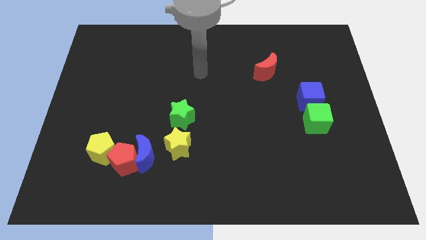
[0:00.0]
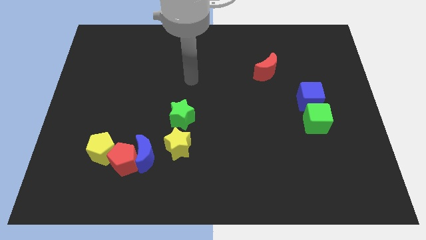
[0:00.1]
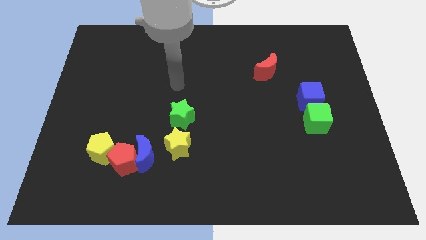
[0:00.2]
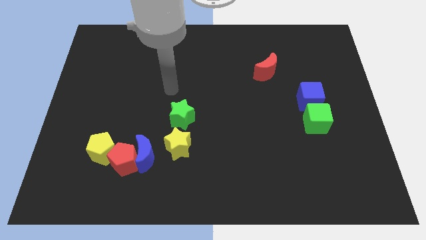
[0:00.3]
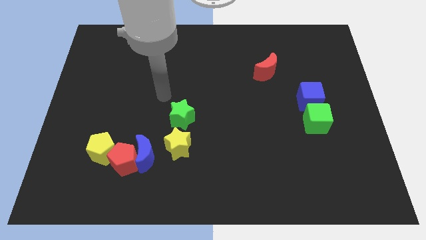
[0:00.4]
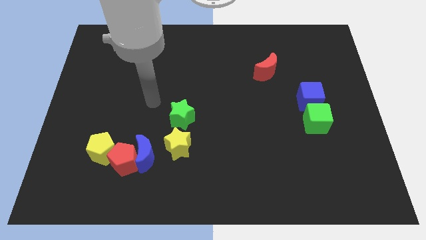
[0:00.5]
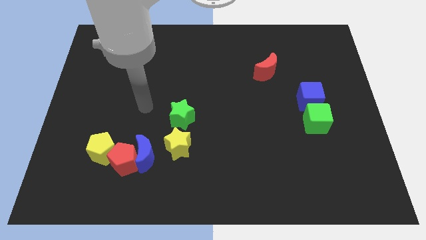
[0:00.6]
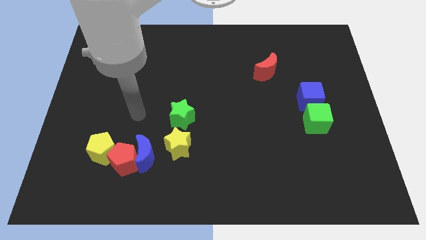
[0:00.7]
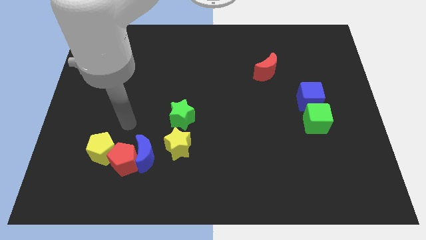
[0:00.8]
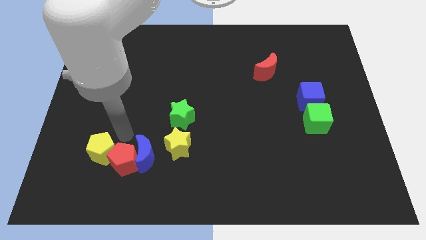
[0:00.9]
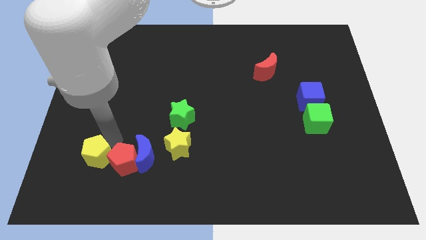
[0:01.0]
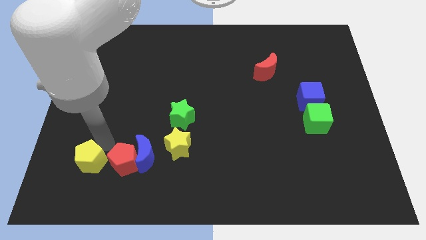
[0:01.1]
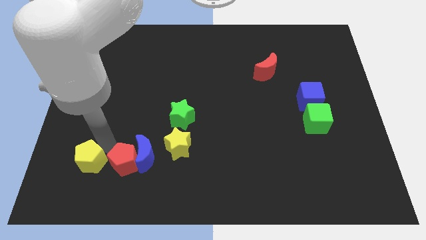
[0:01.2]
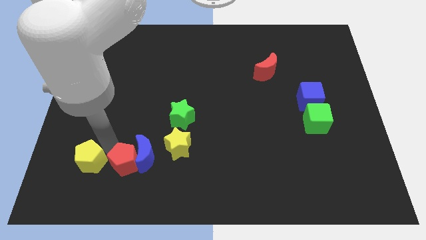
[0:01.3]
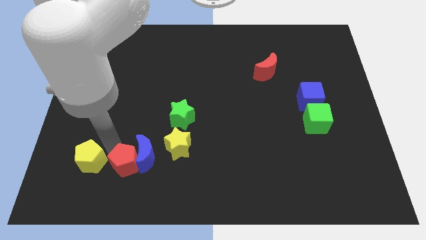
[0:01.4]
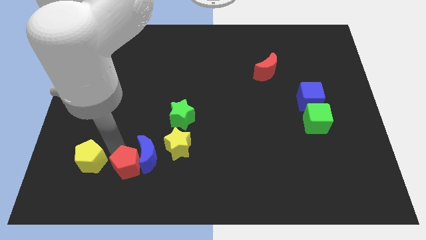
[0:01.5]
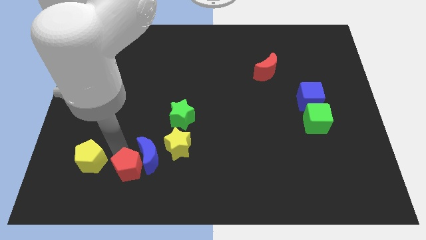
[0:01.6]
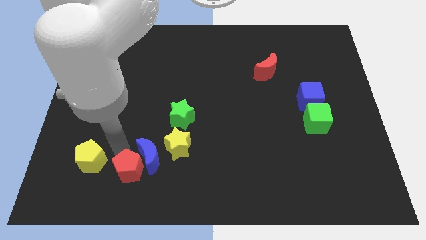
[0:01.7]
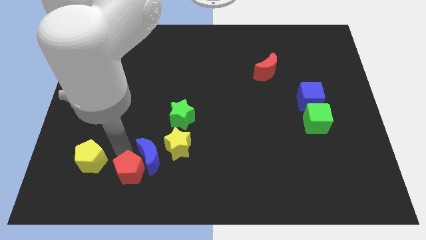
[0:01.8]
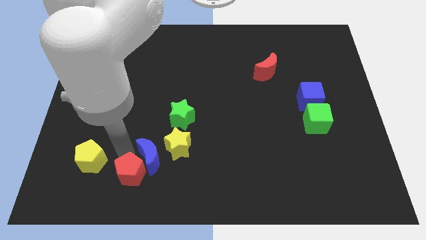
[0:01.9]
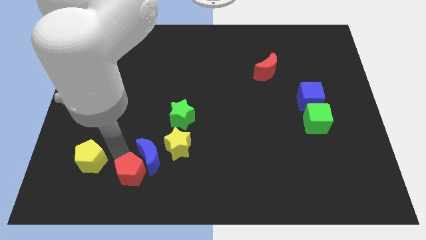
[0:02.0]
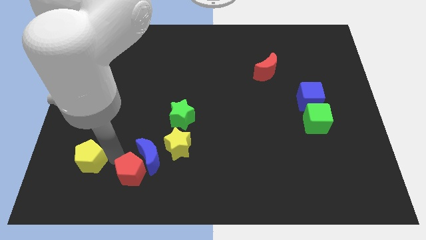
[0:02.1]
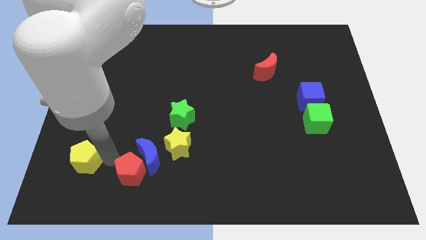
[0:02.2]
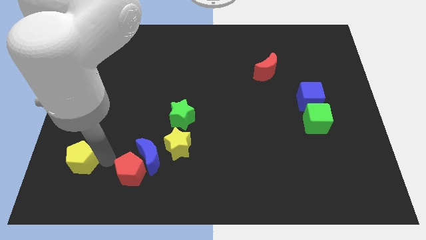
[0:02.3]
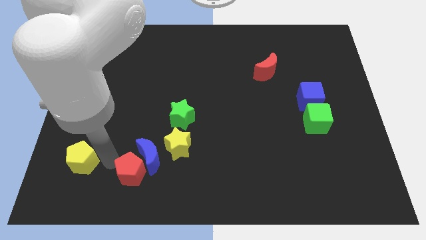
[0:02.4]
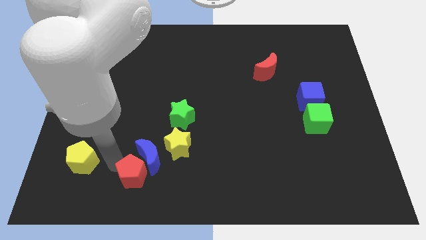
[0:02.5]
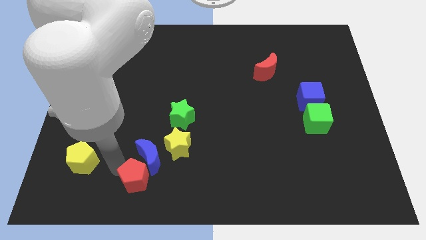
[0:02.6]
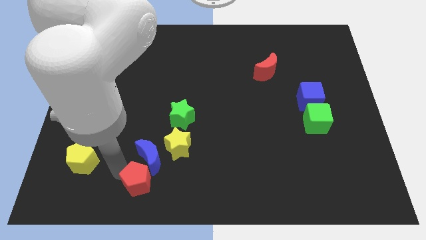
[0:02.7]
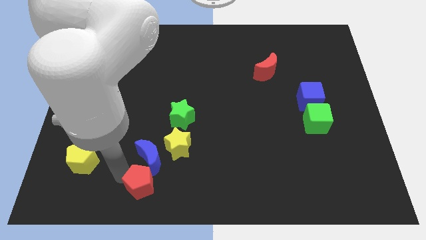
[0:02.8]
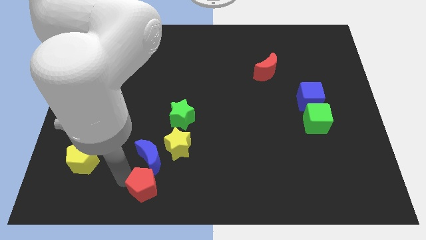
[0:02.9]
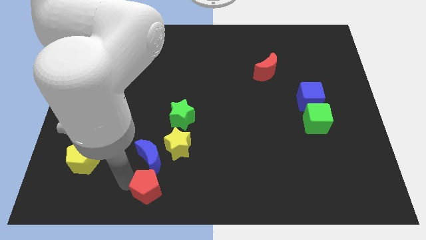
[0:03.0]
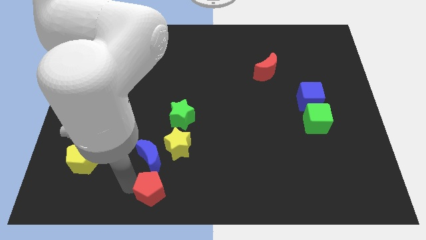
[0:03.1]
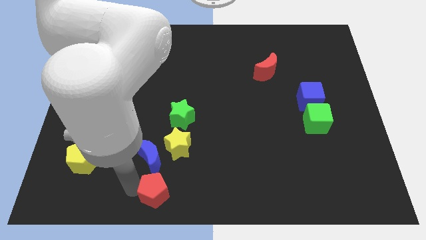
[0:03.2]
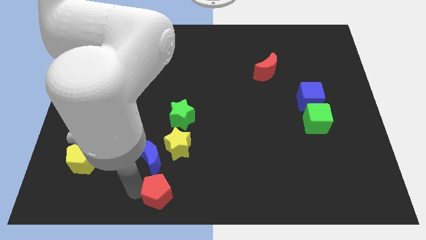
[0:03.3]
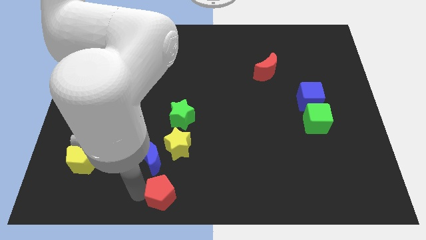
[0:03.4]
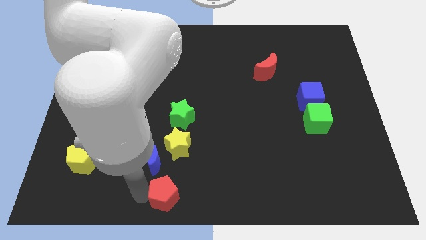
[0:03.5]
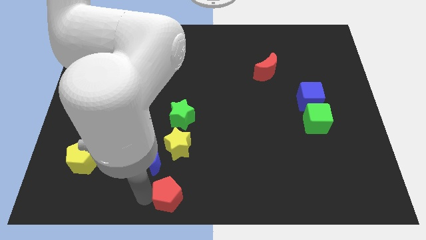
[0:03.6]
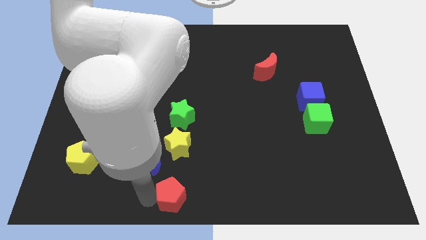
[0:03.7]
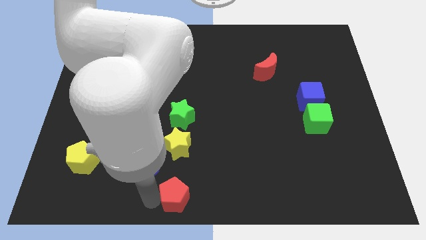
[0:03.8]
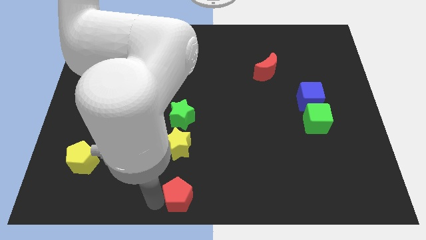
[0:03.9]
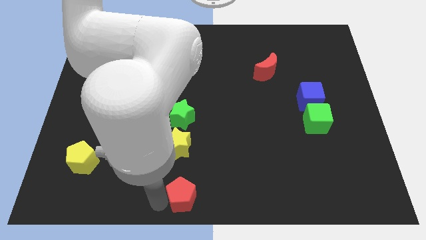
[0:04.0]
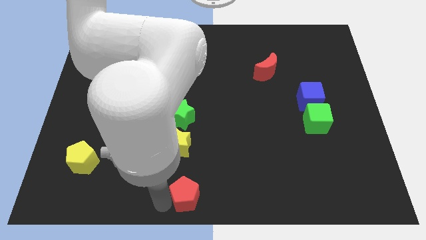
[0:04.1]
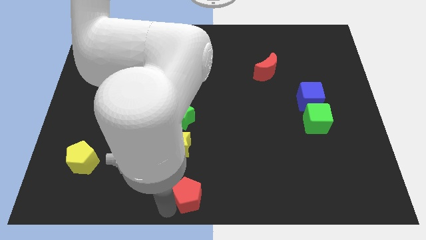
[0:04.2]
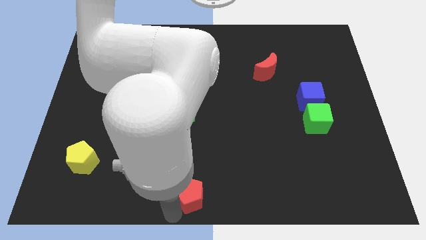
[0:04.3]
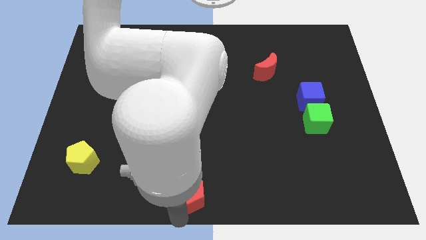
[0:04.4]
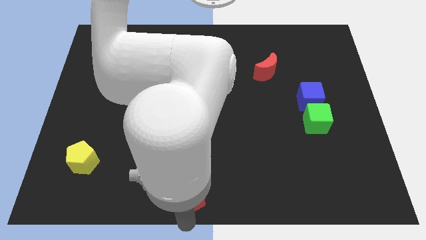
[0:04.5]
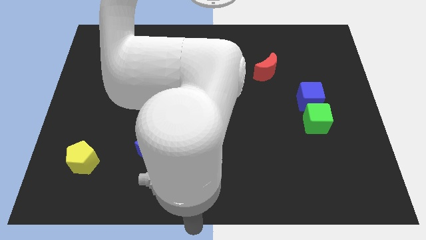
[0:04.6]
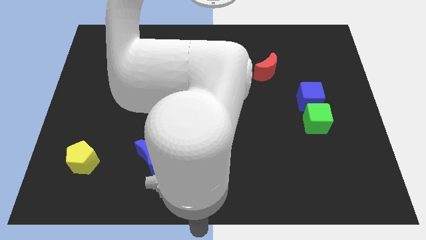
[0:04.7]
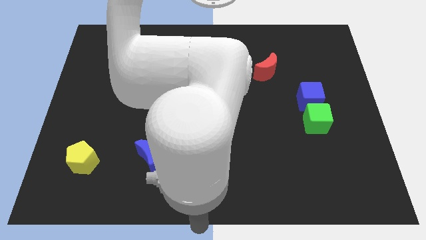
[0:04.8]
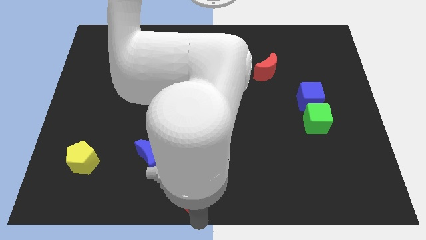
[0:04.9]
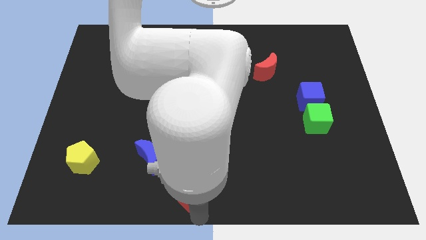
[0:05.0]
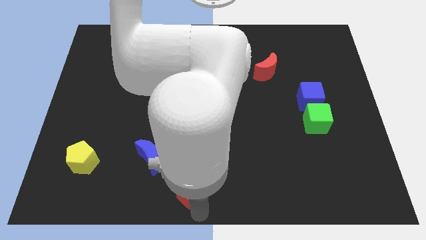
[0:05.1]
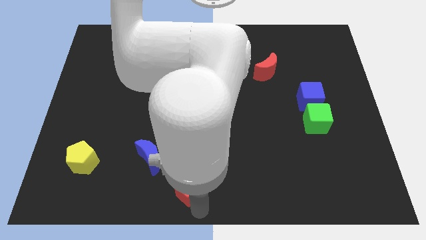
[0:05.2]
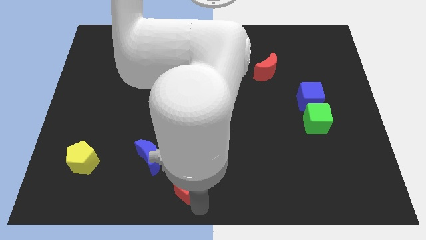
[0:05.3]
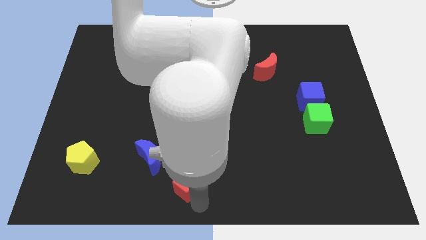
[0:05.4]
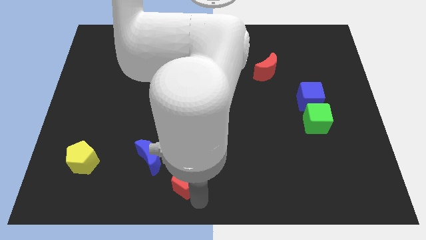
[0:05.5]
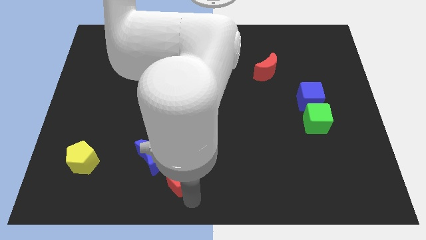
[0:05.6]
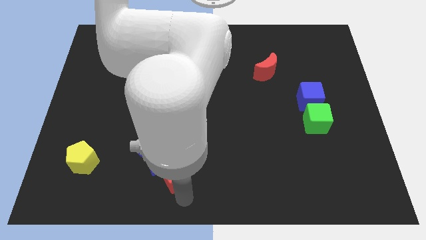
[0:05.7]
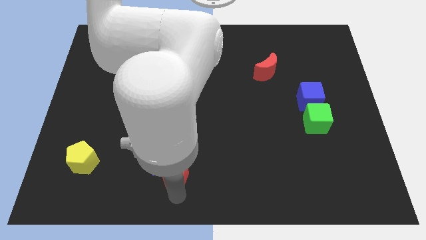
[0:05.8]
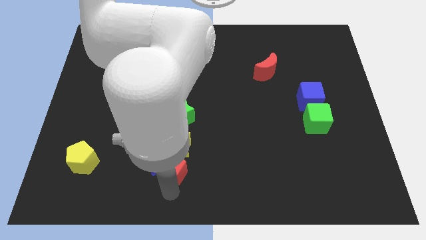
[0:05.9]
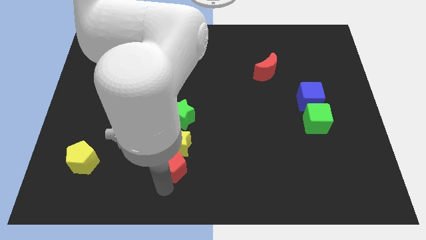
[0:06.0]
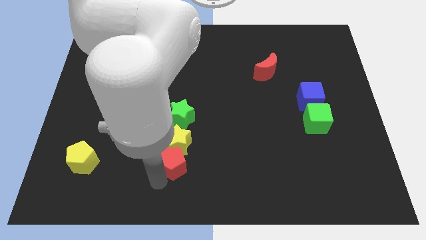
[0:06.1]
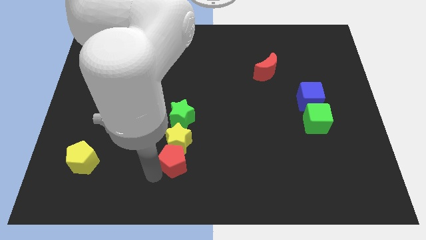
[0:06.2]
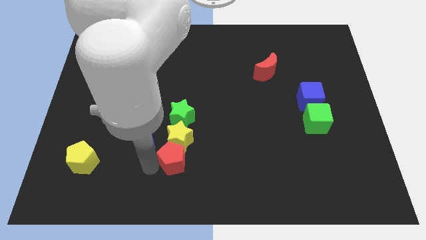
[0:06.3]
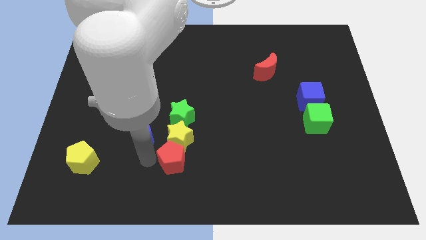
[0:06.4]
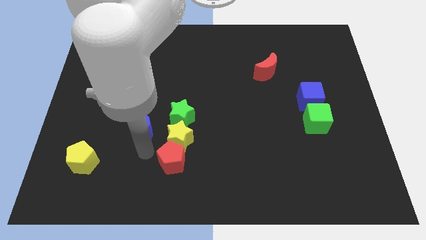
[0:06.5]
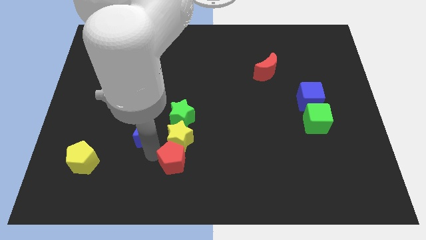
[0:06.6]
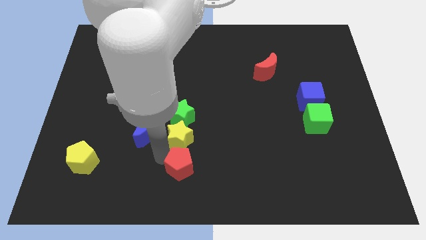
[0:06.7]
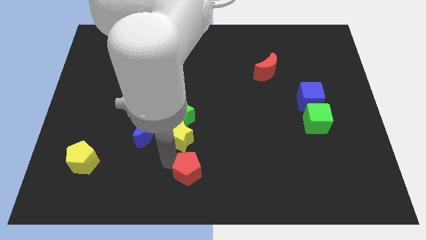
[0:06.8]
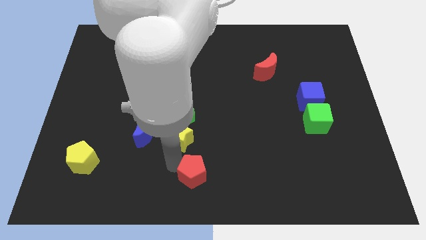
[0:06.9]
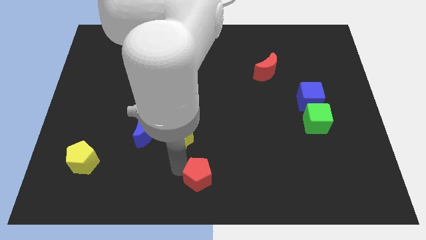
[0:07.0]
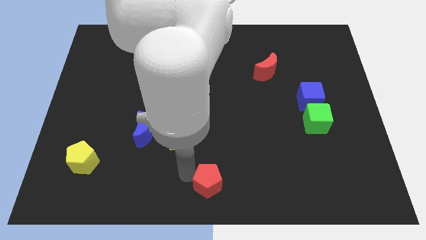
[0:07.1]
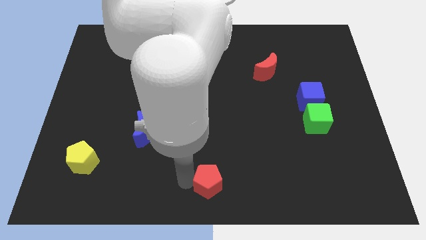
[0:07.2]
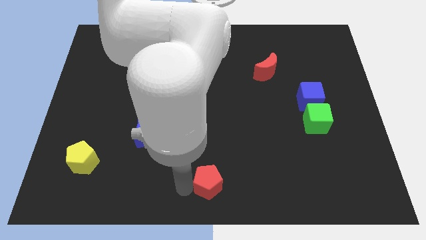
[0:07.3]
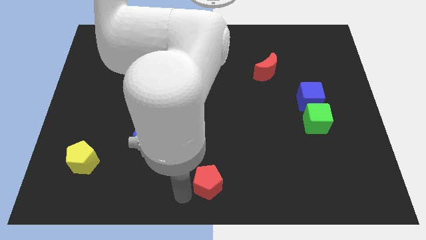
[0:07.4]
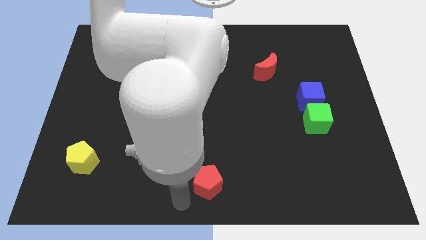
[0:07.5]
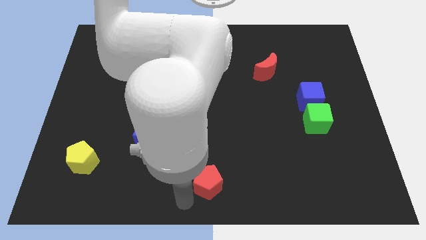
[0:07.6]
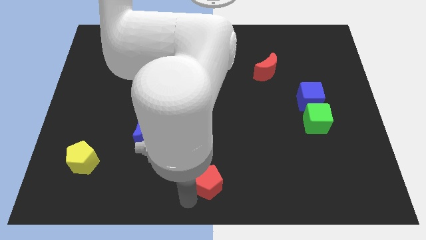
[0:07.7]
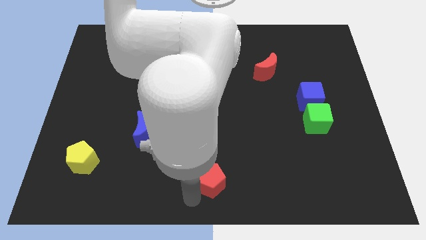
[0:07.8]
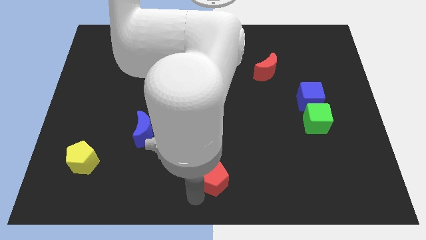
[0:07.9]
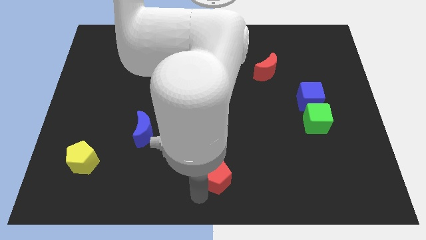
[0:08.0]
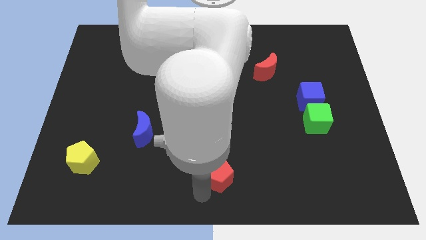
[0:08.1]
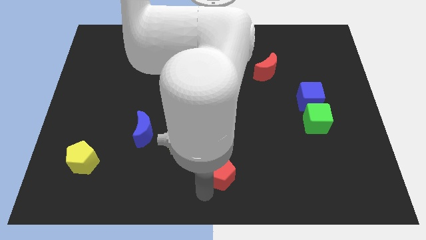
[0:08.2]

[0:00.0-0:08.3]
push the red pentagon right
